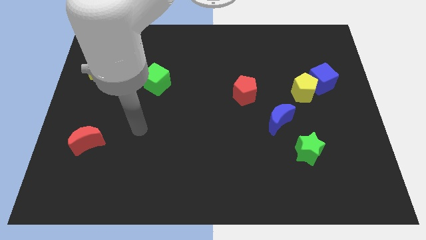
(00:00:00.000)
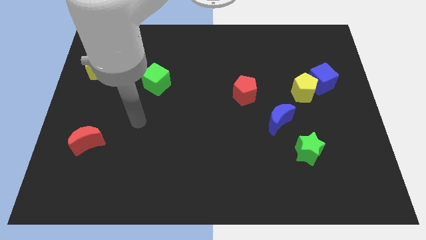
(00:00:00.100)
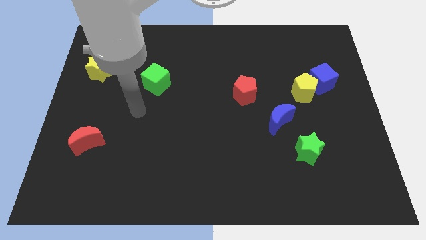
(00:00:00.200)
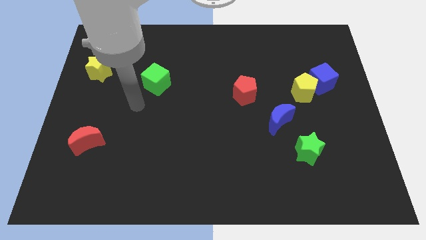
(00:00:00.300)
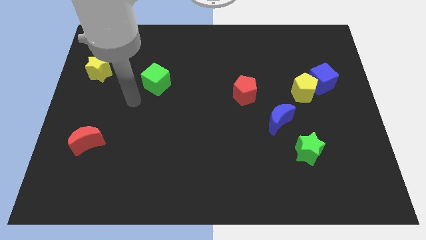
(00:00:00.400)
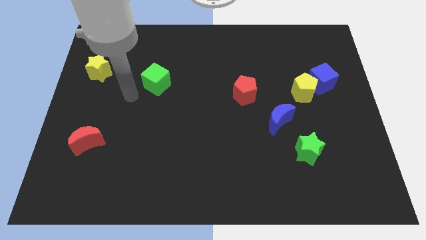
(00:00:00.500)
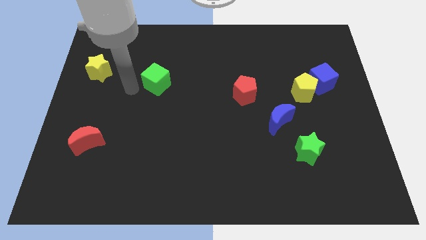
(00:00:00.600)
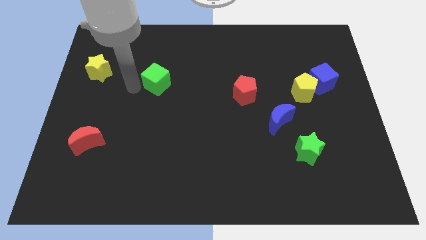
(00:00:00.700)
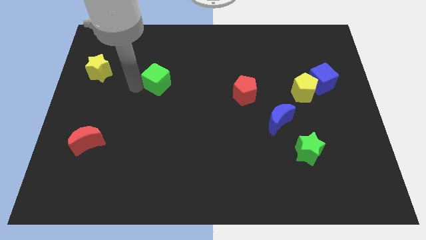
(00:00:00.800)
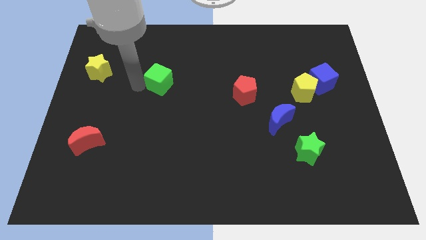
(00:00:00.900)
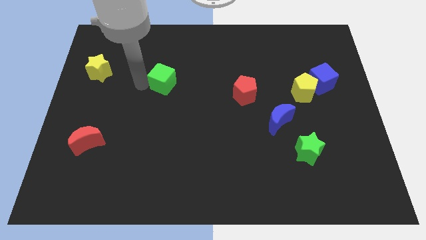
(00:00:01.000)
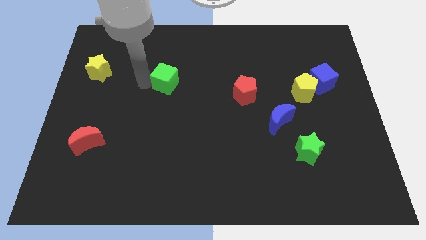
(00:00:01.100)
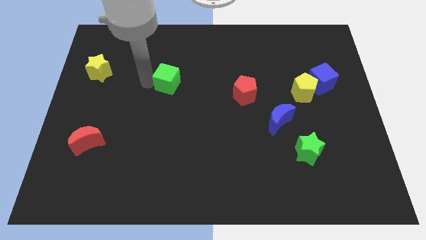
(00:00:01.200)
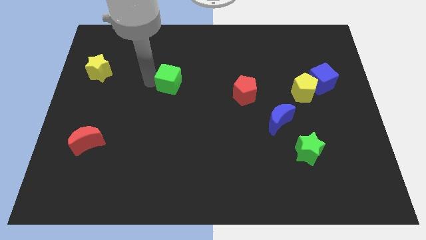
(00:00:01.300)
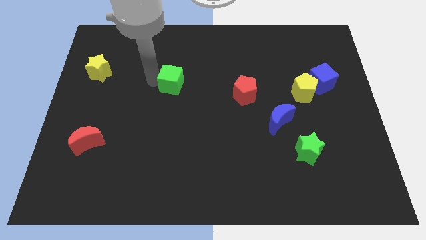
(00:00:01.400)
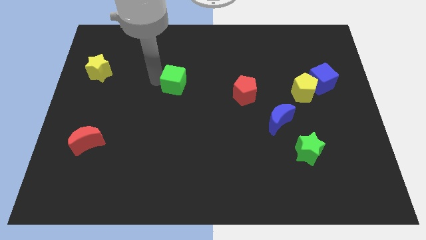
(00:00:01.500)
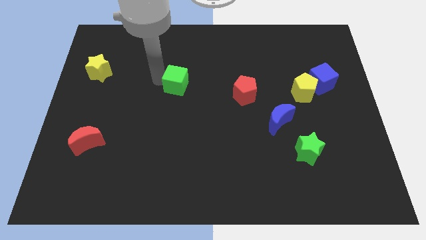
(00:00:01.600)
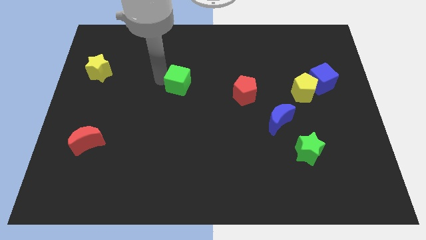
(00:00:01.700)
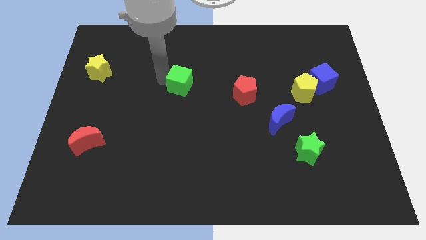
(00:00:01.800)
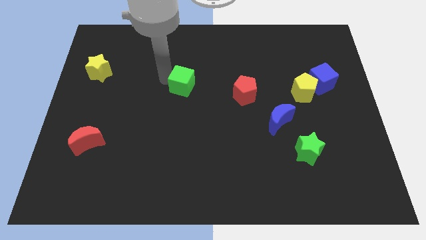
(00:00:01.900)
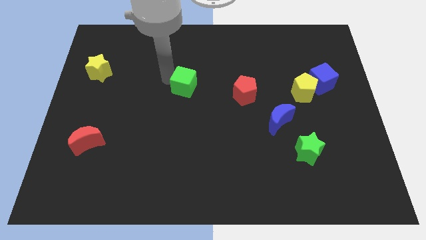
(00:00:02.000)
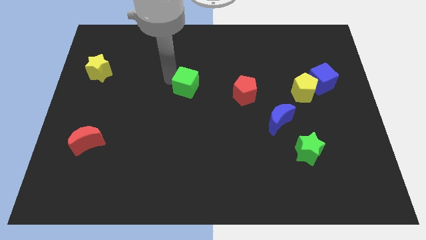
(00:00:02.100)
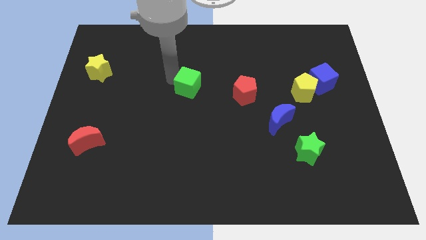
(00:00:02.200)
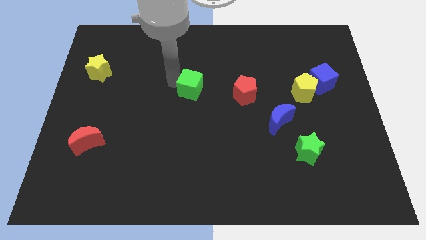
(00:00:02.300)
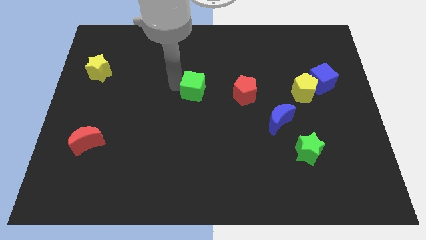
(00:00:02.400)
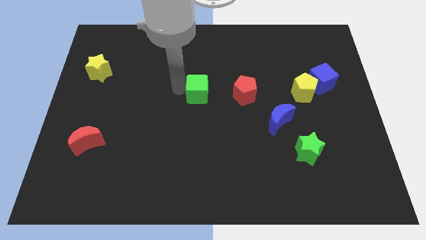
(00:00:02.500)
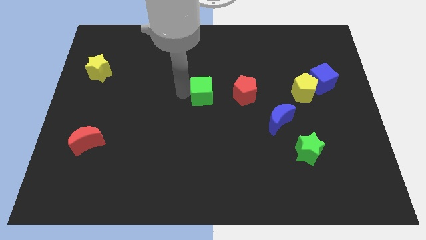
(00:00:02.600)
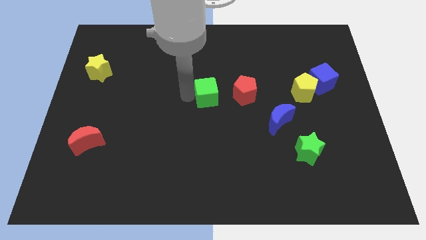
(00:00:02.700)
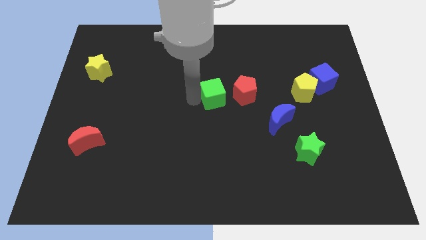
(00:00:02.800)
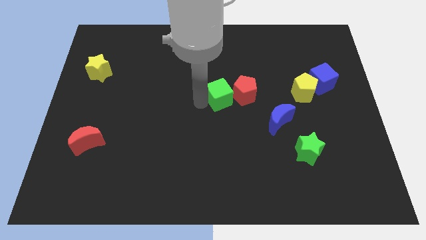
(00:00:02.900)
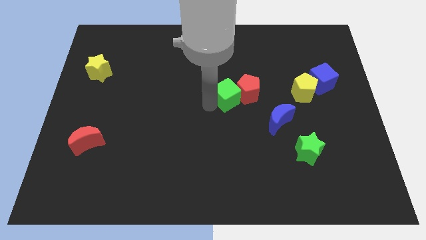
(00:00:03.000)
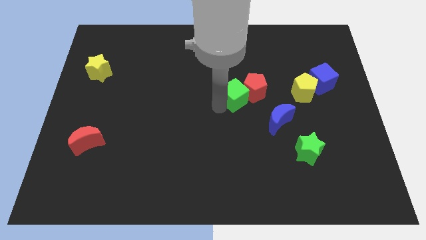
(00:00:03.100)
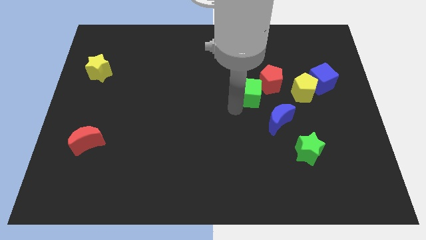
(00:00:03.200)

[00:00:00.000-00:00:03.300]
move the green cube to the right

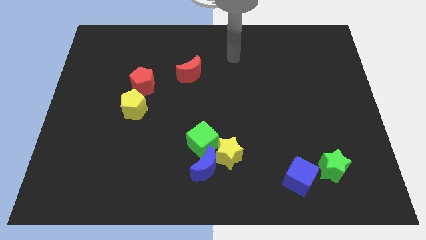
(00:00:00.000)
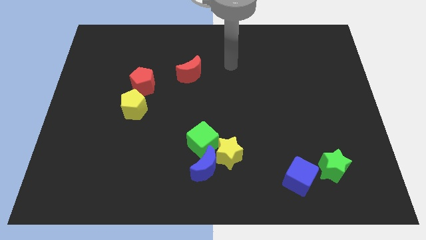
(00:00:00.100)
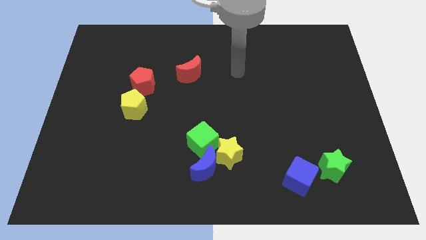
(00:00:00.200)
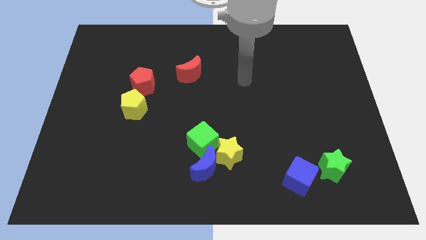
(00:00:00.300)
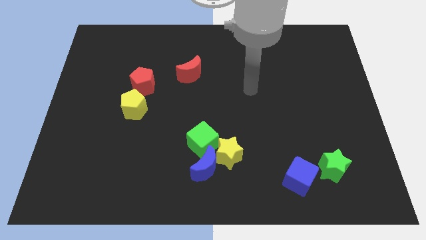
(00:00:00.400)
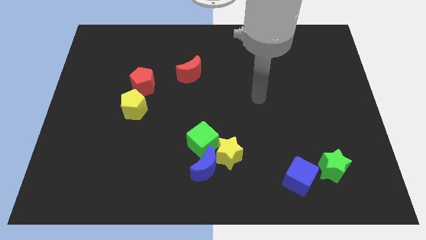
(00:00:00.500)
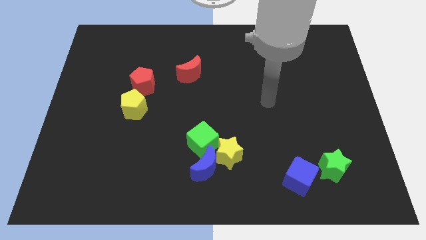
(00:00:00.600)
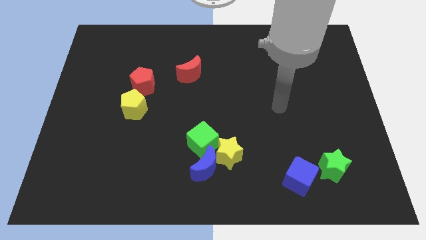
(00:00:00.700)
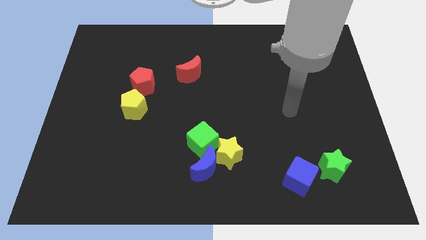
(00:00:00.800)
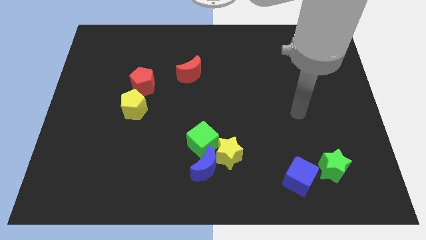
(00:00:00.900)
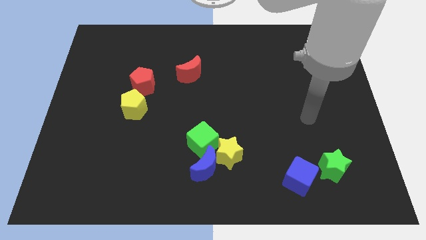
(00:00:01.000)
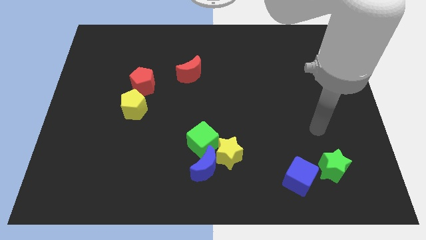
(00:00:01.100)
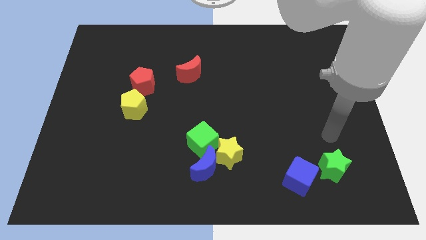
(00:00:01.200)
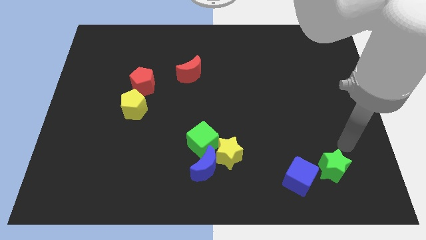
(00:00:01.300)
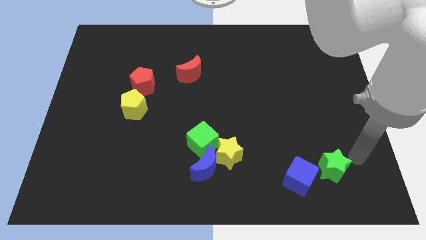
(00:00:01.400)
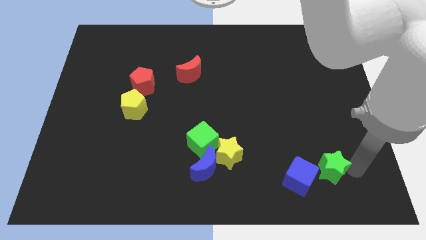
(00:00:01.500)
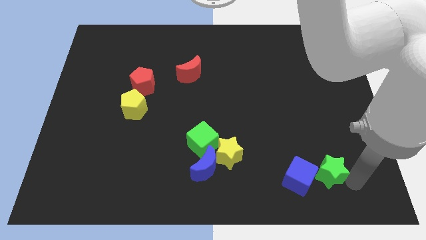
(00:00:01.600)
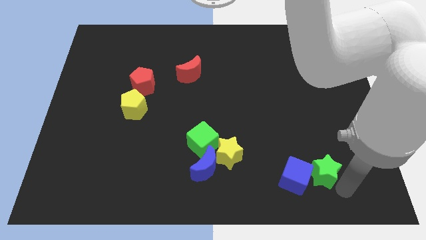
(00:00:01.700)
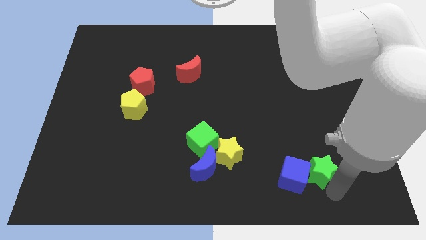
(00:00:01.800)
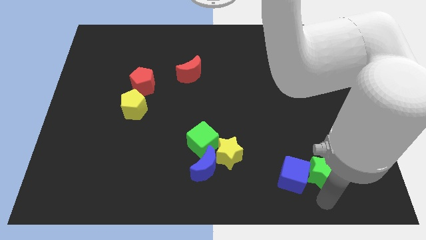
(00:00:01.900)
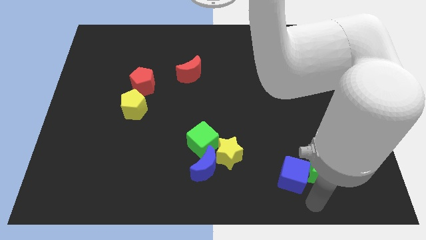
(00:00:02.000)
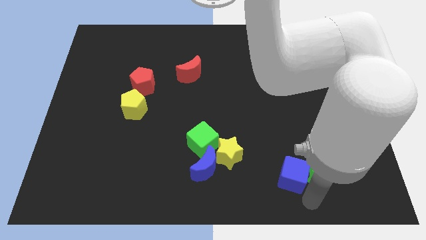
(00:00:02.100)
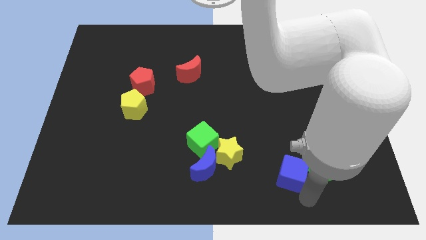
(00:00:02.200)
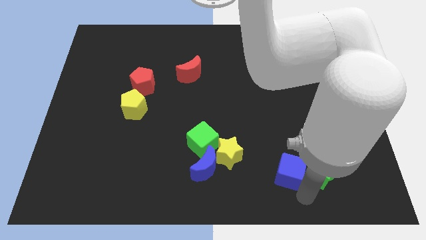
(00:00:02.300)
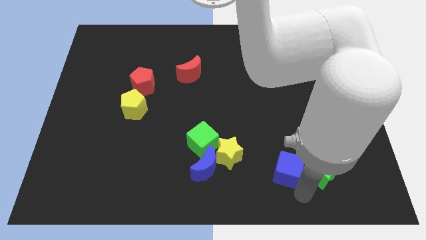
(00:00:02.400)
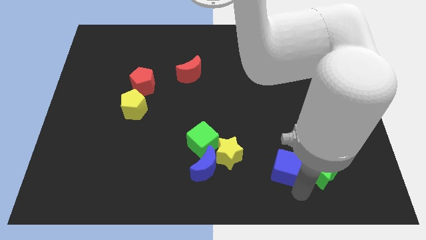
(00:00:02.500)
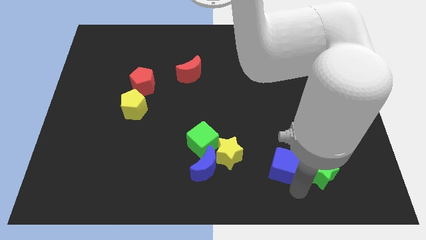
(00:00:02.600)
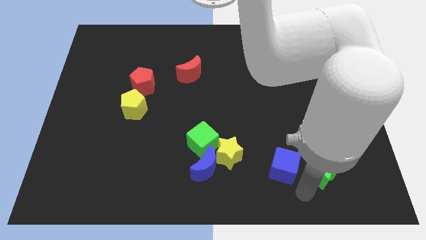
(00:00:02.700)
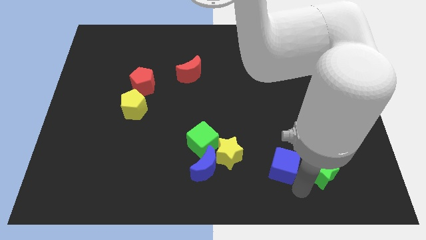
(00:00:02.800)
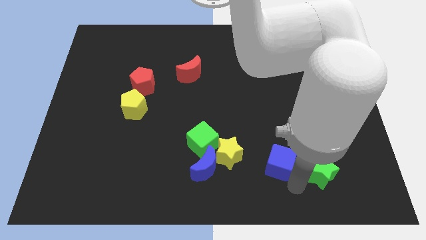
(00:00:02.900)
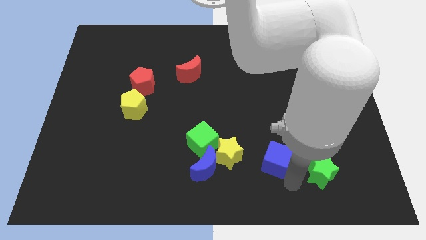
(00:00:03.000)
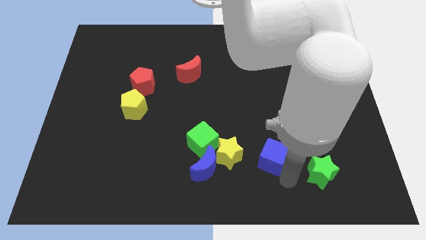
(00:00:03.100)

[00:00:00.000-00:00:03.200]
move the blue cube upwards and left diagonally a little

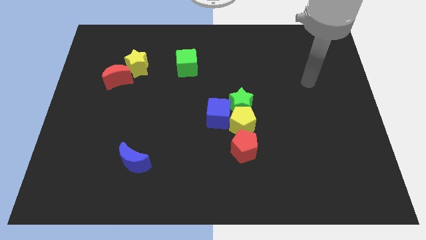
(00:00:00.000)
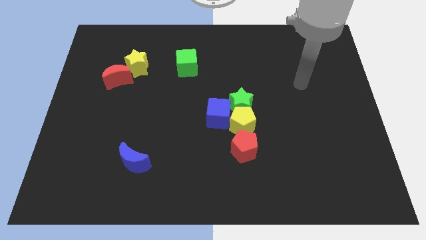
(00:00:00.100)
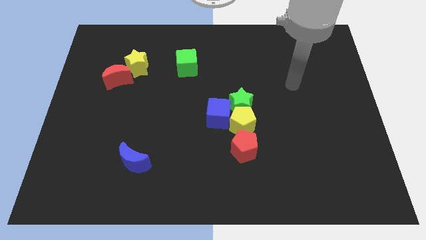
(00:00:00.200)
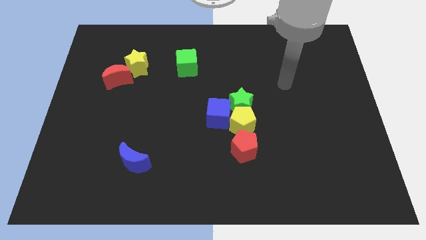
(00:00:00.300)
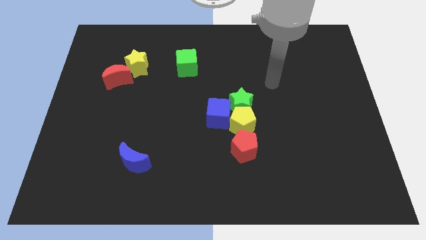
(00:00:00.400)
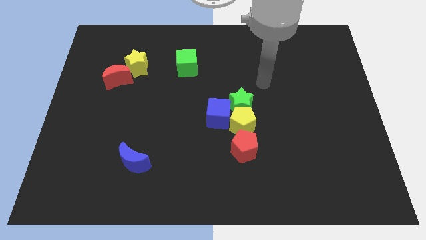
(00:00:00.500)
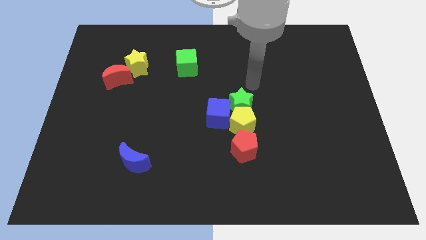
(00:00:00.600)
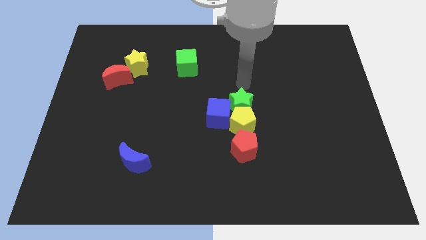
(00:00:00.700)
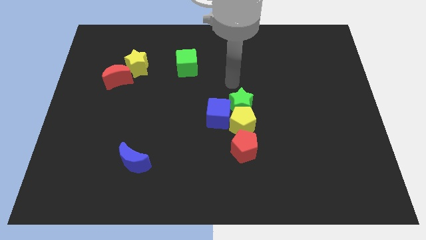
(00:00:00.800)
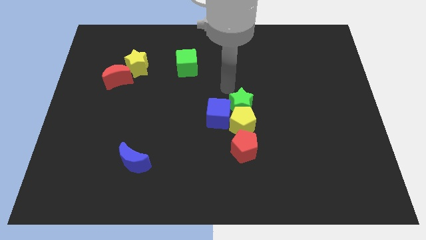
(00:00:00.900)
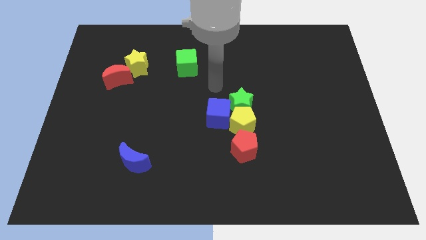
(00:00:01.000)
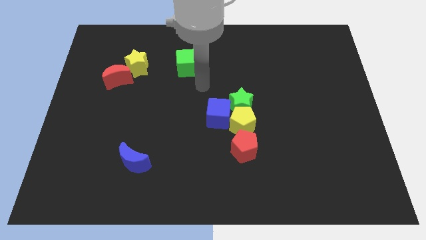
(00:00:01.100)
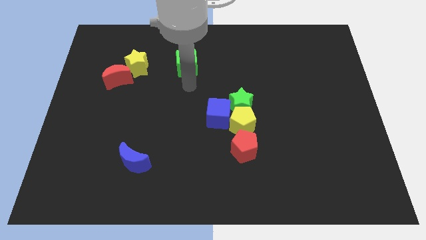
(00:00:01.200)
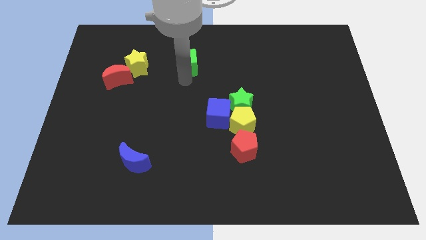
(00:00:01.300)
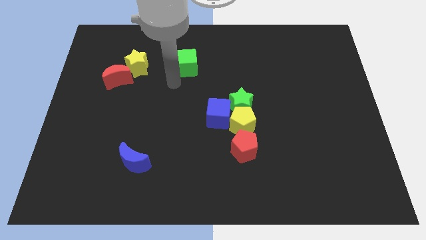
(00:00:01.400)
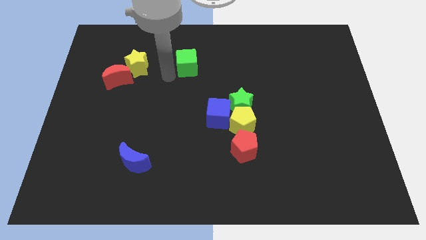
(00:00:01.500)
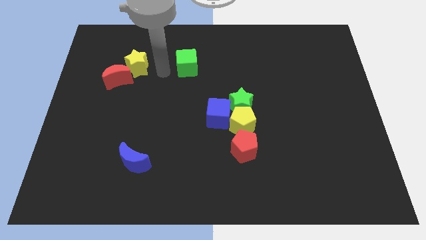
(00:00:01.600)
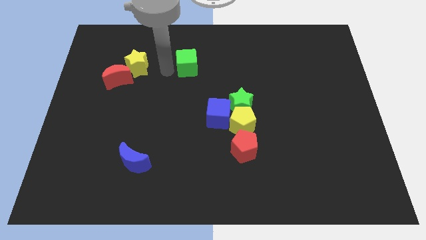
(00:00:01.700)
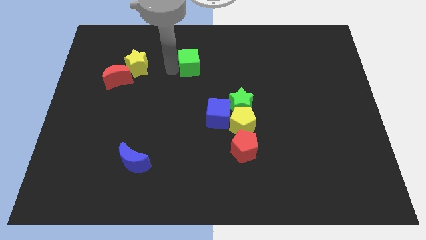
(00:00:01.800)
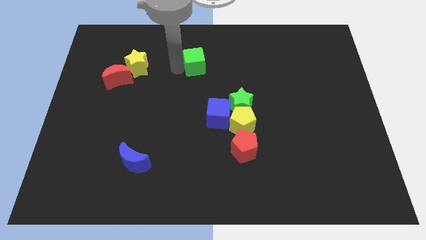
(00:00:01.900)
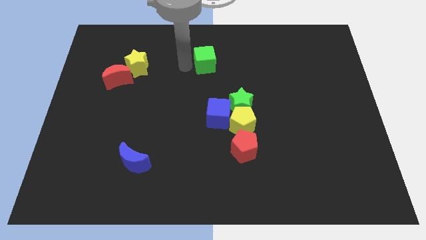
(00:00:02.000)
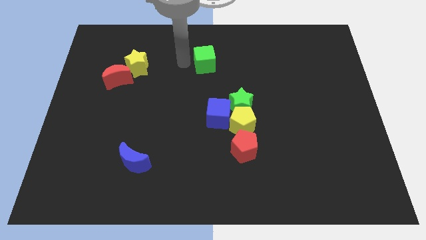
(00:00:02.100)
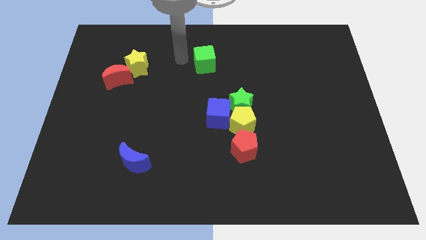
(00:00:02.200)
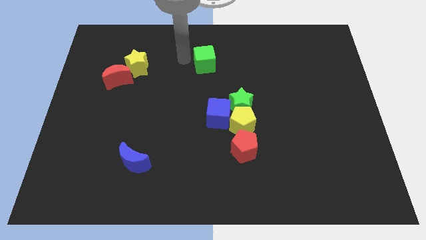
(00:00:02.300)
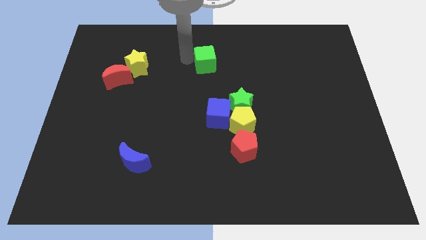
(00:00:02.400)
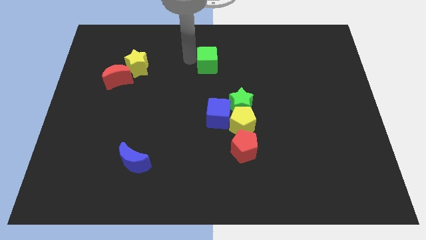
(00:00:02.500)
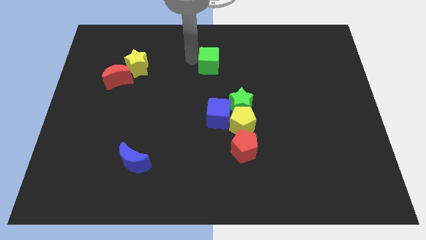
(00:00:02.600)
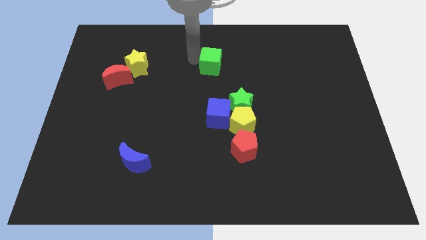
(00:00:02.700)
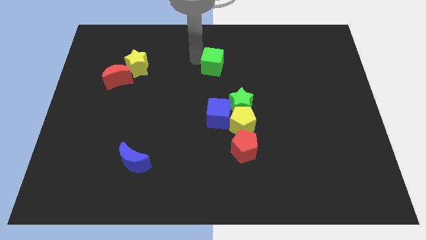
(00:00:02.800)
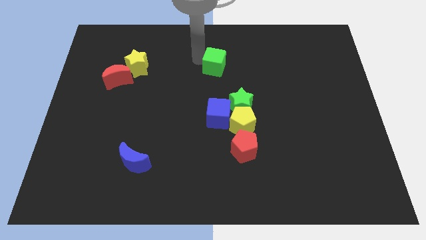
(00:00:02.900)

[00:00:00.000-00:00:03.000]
move the green cube a bit to the right
